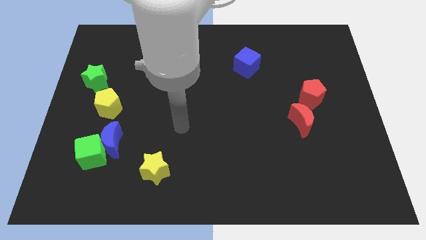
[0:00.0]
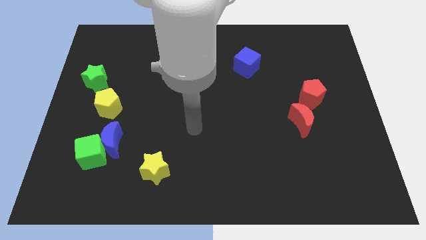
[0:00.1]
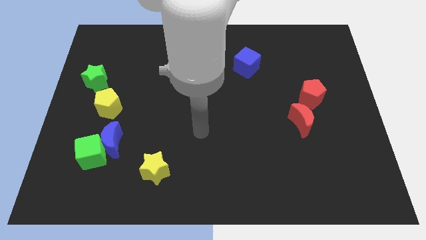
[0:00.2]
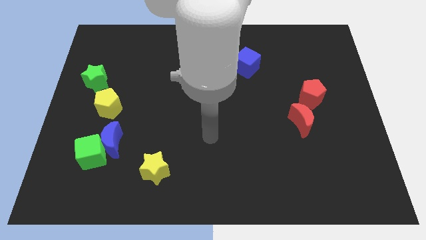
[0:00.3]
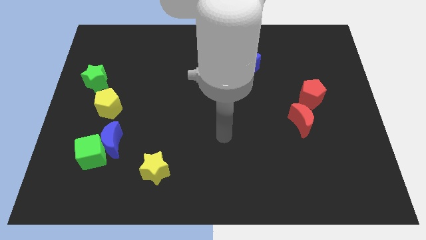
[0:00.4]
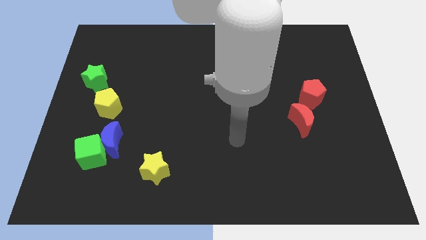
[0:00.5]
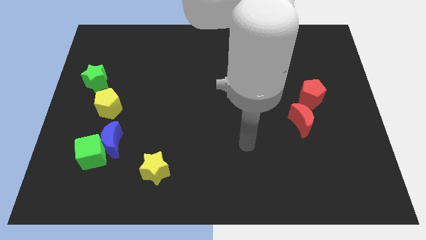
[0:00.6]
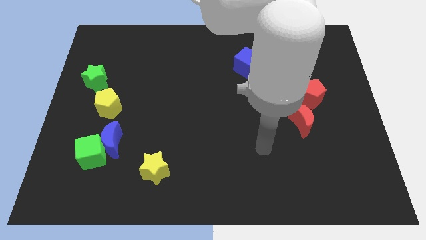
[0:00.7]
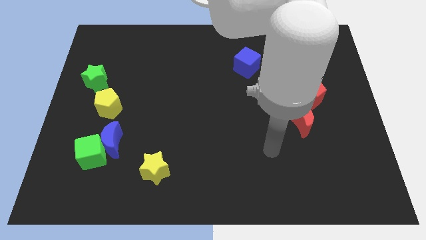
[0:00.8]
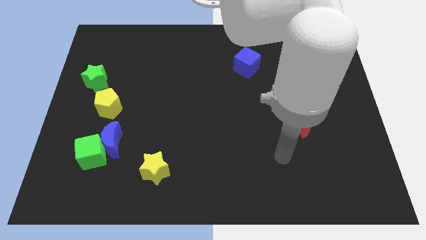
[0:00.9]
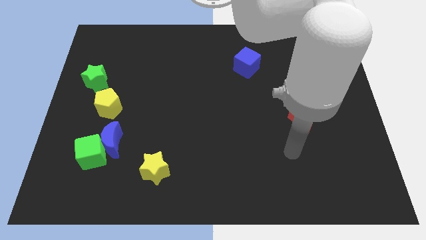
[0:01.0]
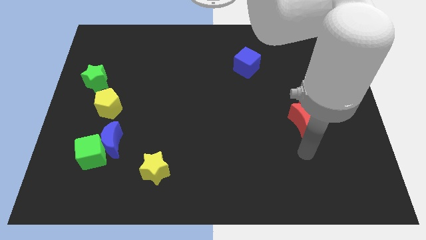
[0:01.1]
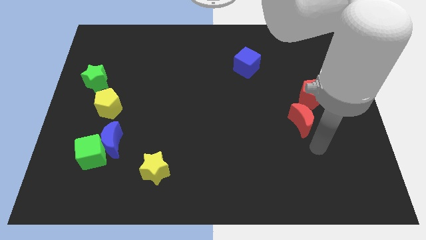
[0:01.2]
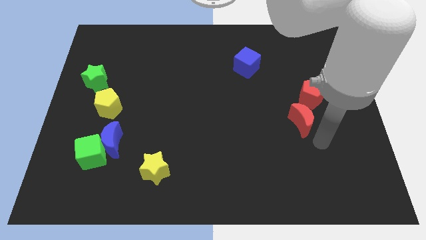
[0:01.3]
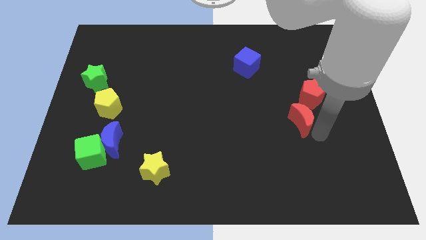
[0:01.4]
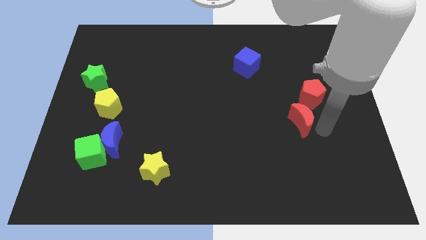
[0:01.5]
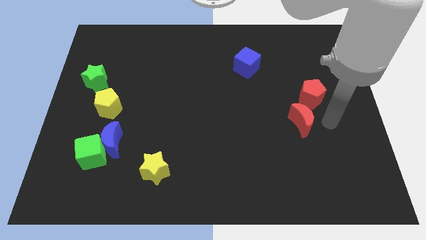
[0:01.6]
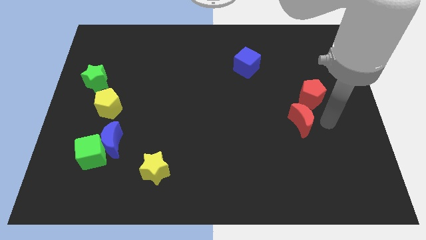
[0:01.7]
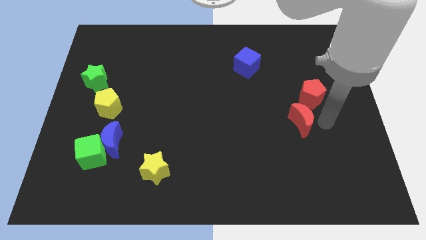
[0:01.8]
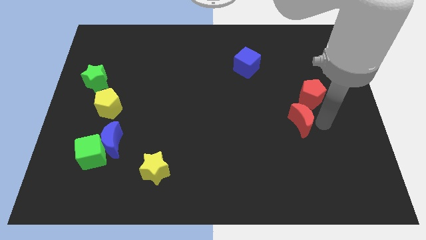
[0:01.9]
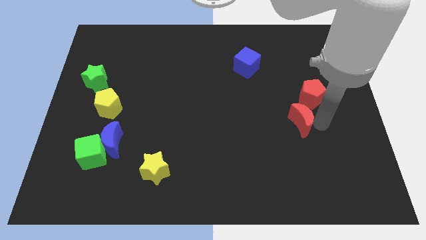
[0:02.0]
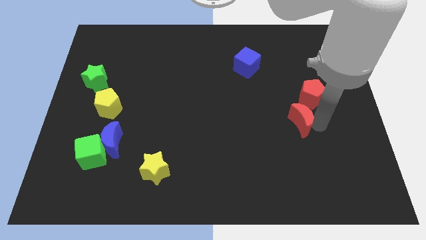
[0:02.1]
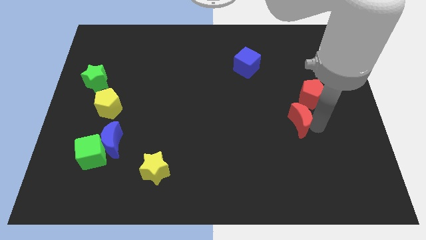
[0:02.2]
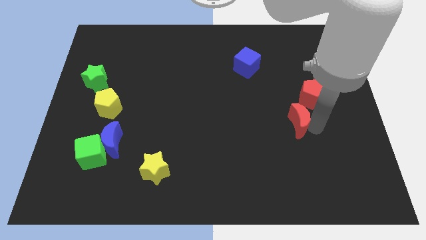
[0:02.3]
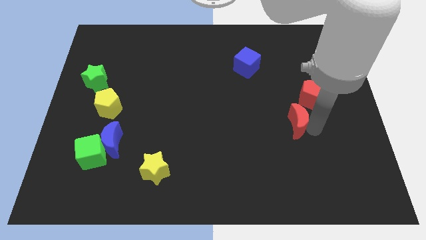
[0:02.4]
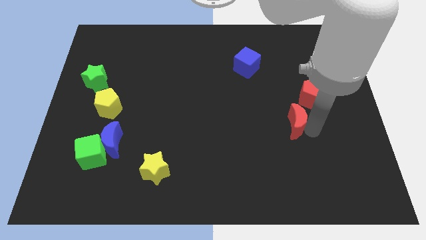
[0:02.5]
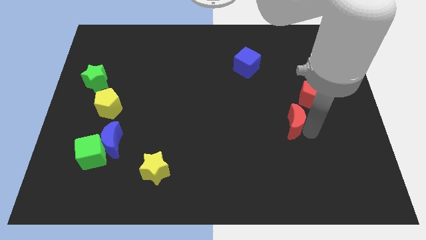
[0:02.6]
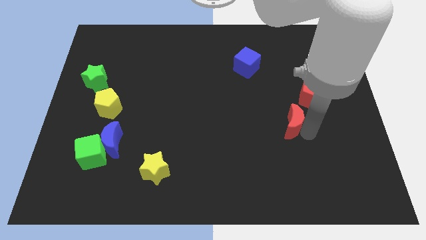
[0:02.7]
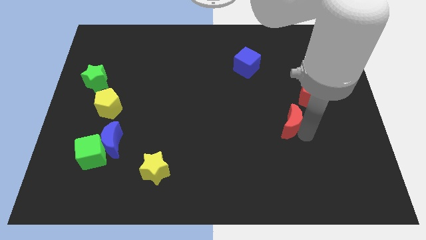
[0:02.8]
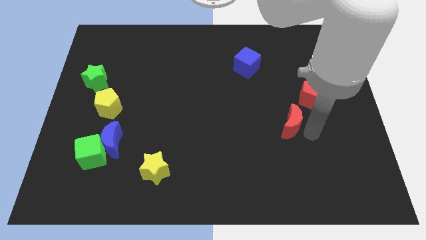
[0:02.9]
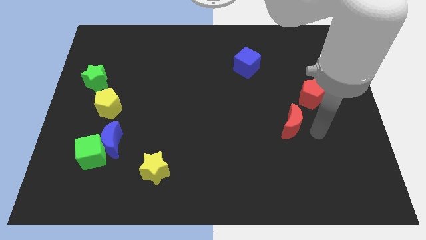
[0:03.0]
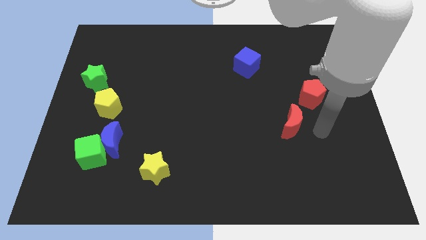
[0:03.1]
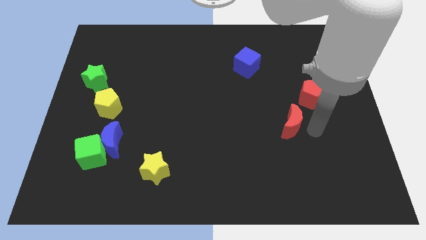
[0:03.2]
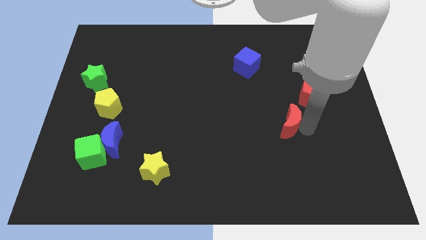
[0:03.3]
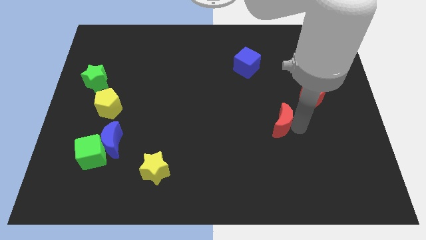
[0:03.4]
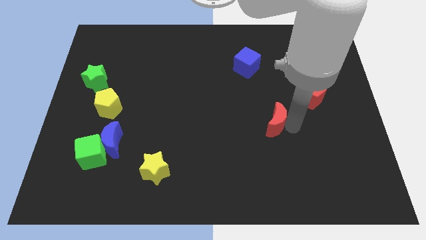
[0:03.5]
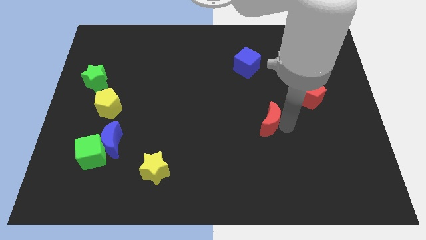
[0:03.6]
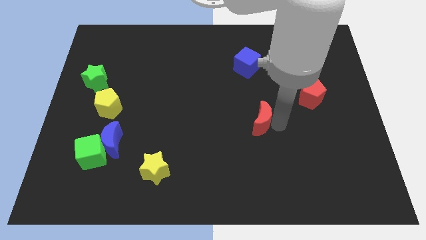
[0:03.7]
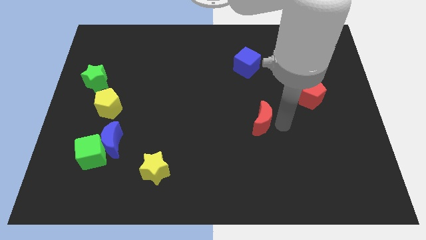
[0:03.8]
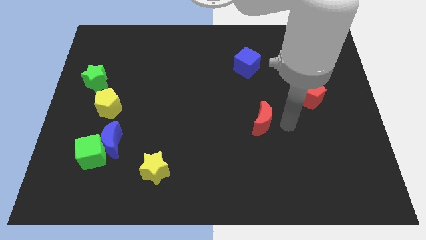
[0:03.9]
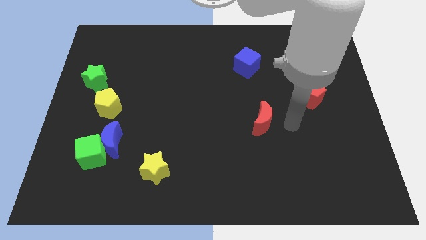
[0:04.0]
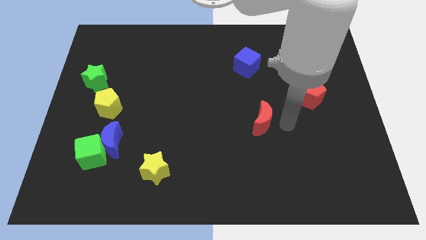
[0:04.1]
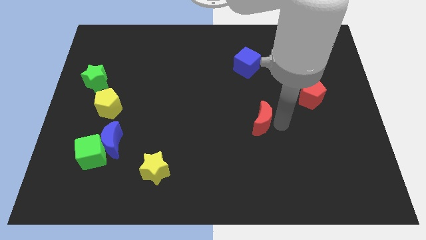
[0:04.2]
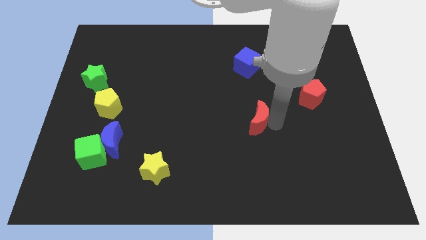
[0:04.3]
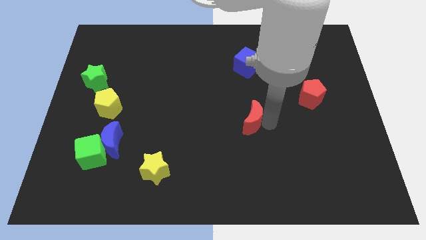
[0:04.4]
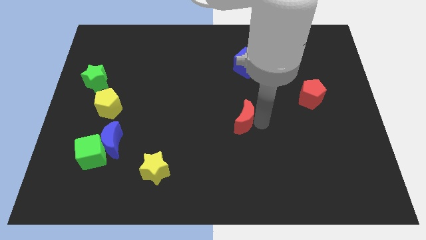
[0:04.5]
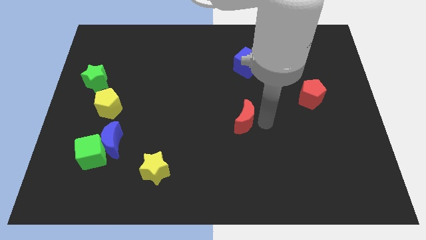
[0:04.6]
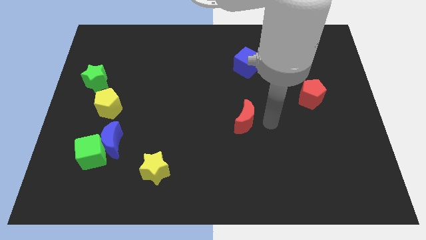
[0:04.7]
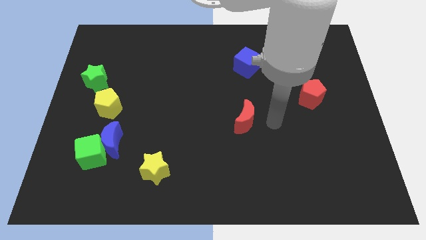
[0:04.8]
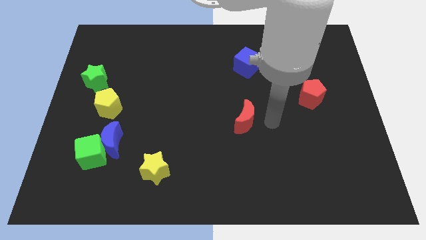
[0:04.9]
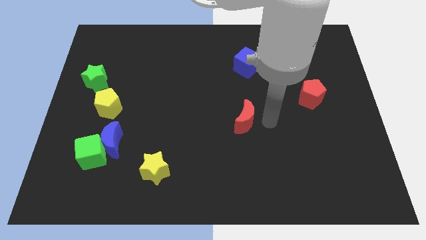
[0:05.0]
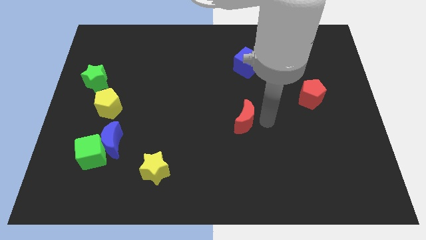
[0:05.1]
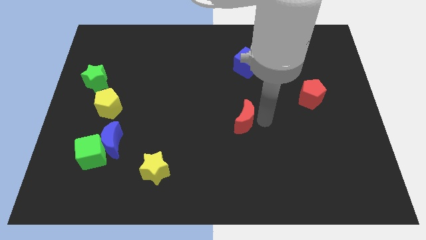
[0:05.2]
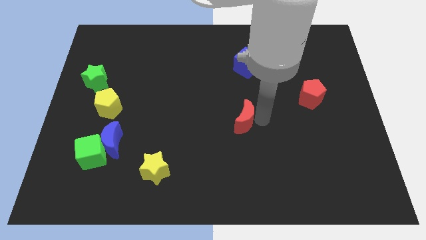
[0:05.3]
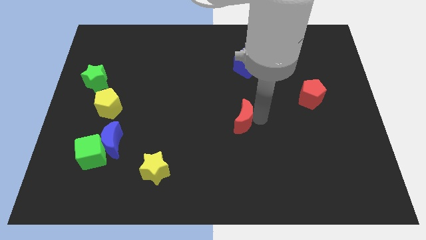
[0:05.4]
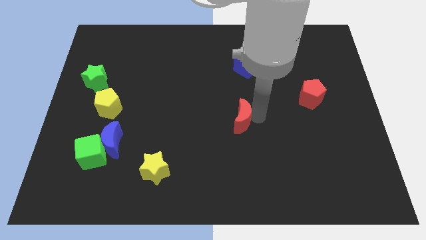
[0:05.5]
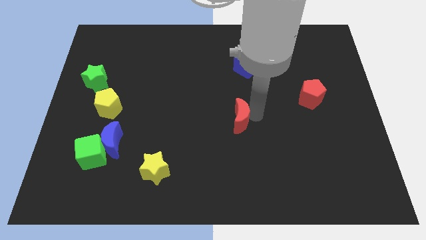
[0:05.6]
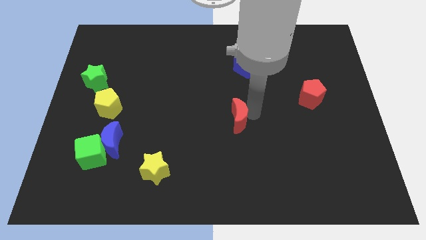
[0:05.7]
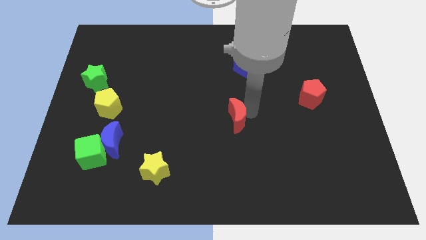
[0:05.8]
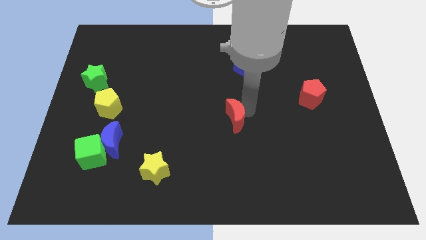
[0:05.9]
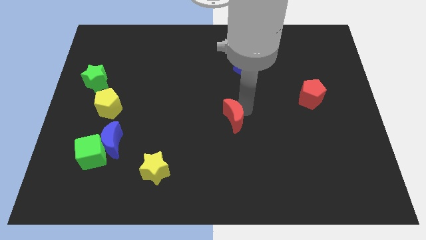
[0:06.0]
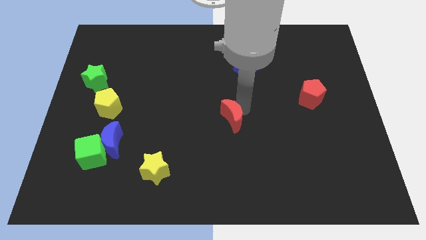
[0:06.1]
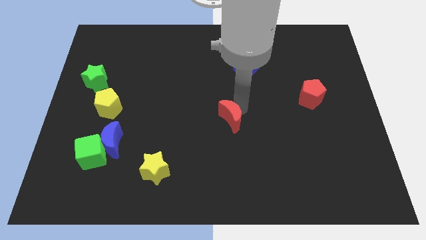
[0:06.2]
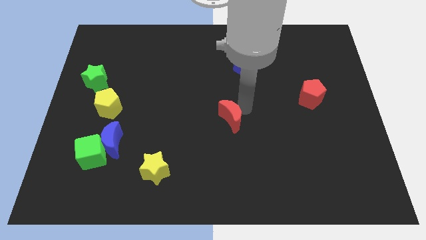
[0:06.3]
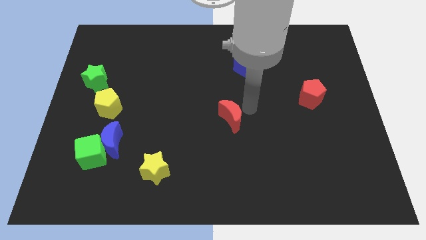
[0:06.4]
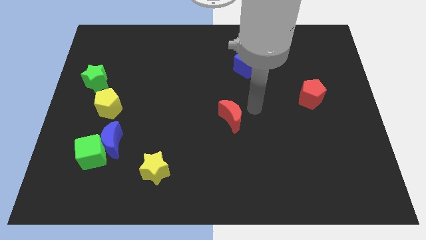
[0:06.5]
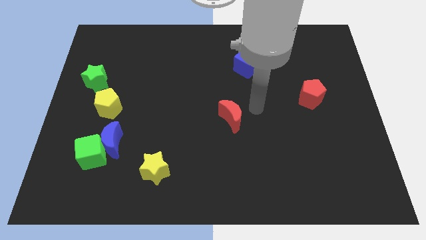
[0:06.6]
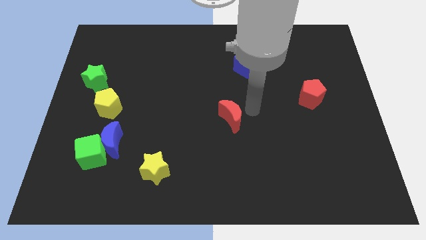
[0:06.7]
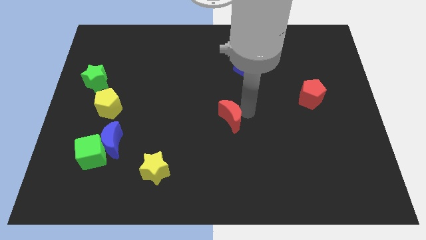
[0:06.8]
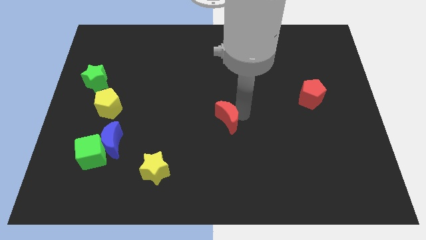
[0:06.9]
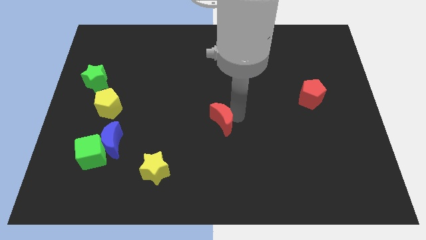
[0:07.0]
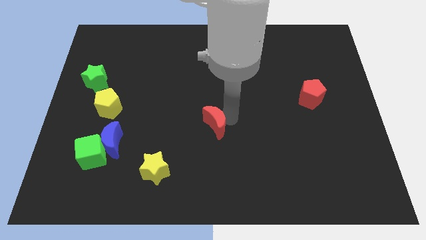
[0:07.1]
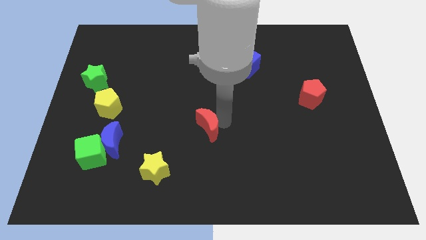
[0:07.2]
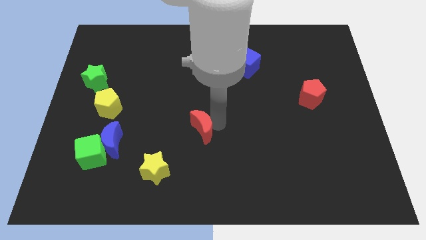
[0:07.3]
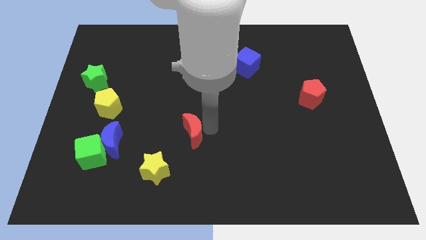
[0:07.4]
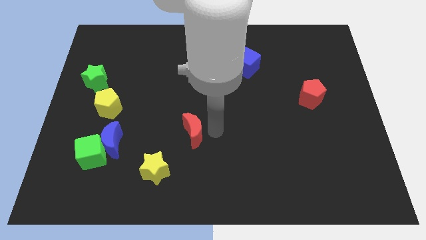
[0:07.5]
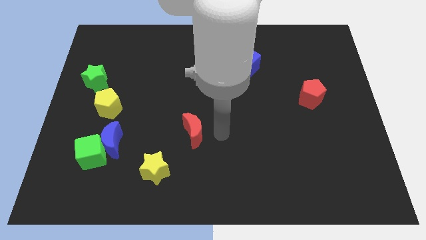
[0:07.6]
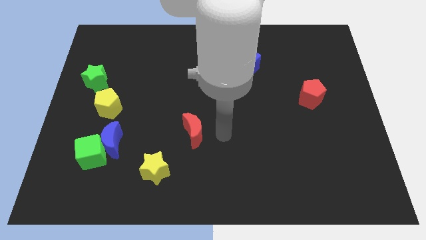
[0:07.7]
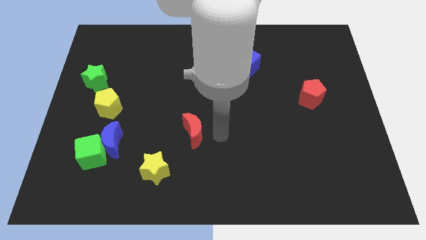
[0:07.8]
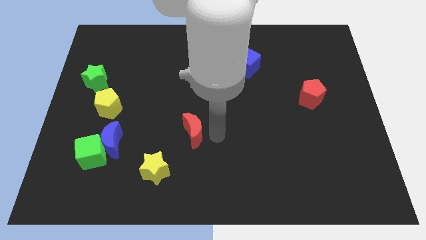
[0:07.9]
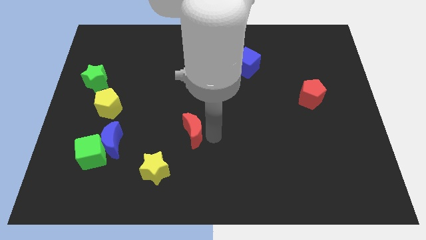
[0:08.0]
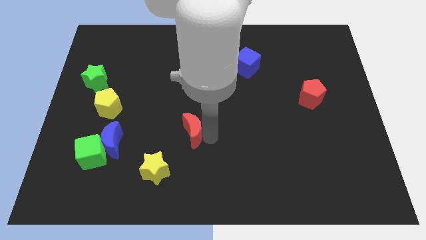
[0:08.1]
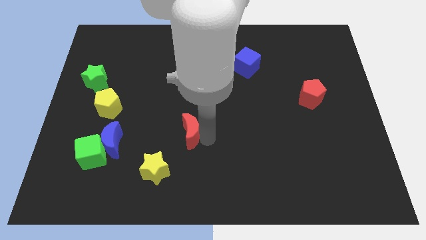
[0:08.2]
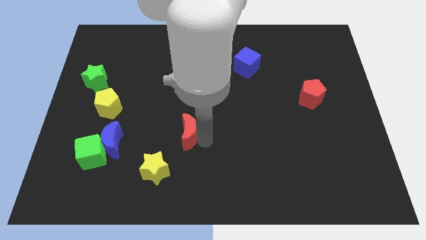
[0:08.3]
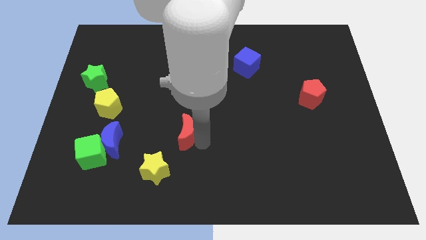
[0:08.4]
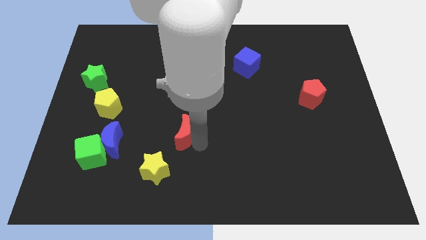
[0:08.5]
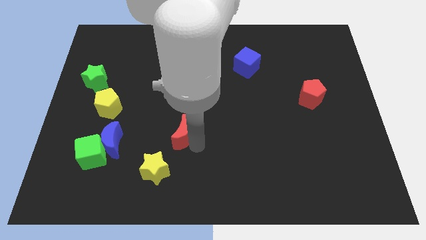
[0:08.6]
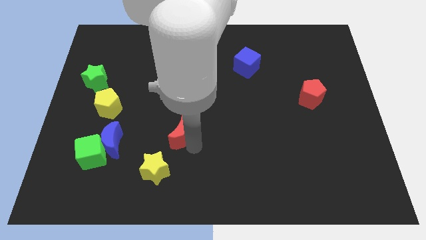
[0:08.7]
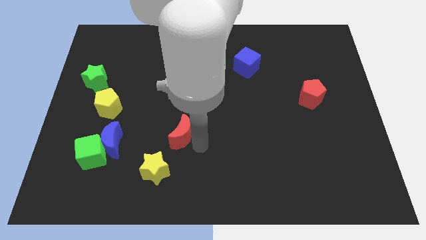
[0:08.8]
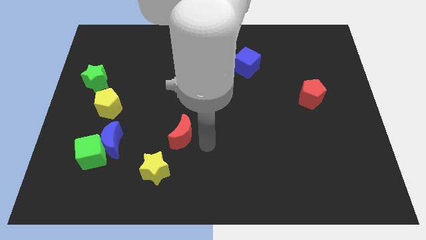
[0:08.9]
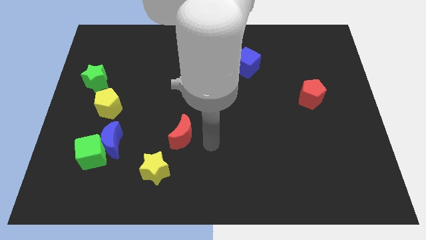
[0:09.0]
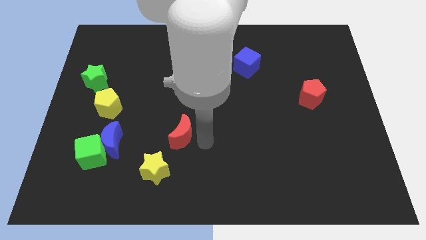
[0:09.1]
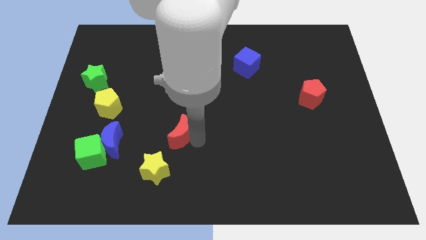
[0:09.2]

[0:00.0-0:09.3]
slide the red moon above the yellow star
